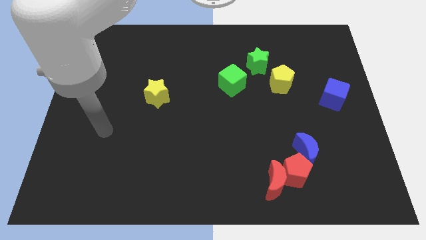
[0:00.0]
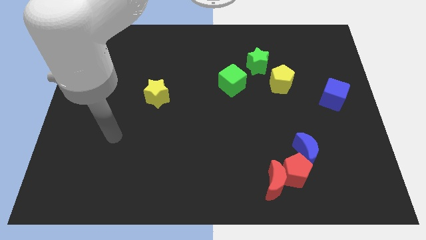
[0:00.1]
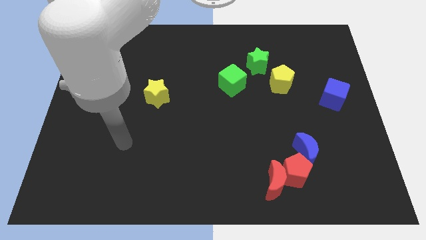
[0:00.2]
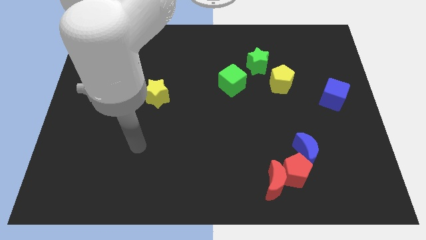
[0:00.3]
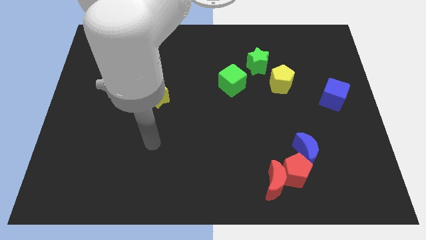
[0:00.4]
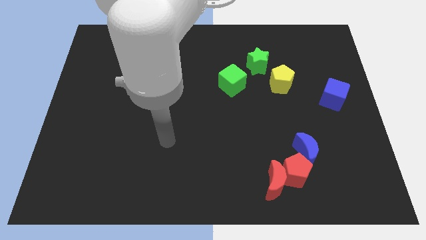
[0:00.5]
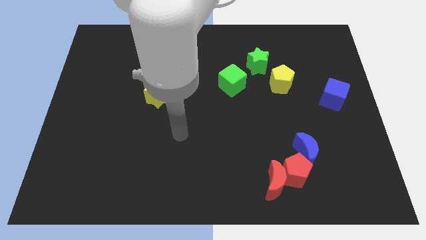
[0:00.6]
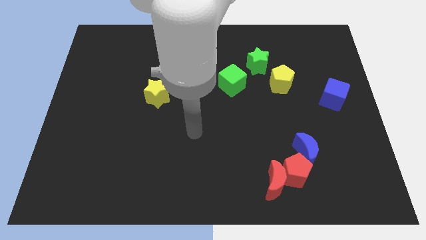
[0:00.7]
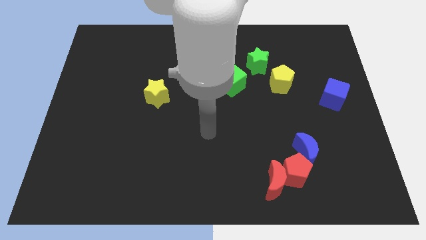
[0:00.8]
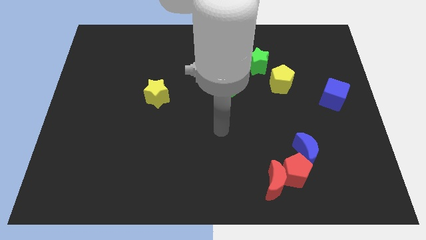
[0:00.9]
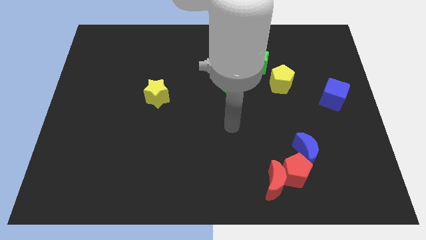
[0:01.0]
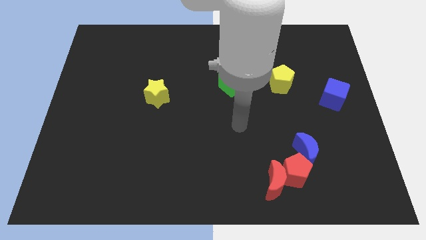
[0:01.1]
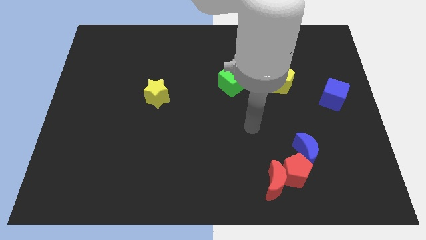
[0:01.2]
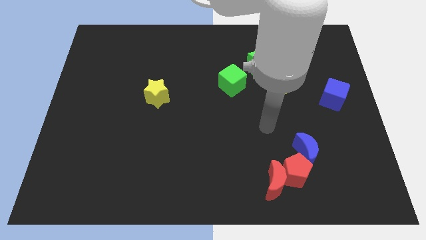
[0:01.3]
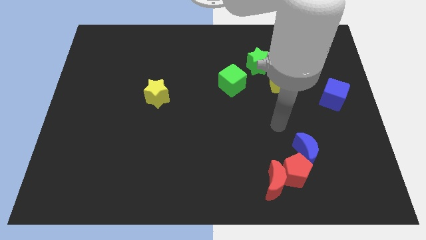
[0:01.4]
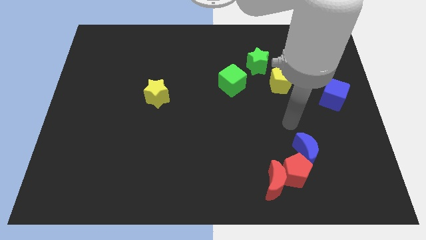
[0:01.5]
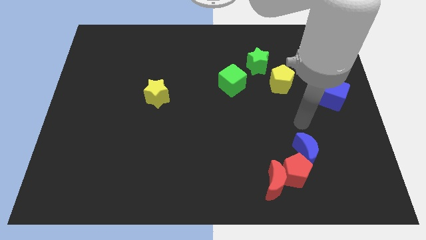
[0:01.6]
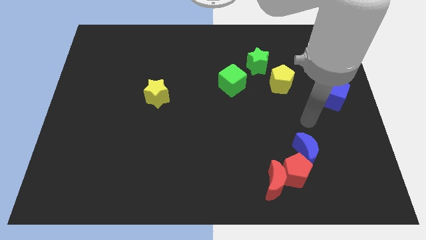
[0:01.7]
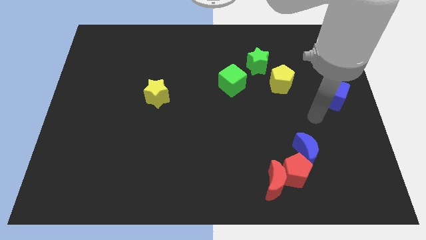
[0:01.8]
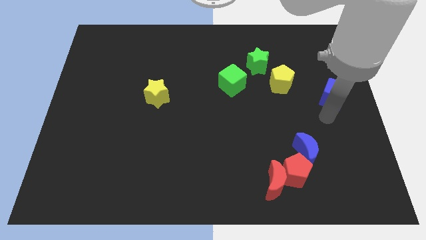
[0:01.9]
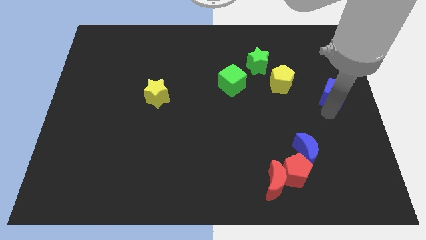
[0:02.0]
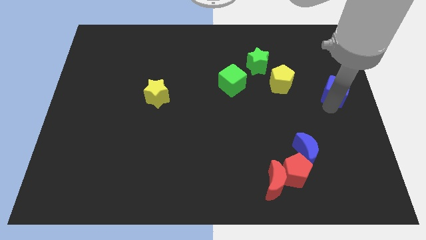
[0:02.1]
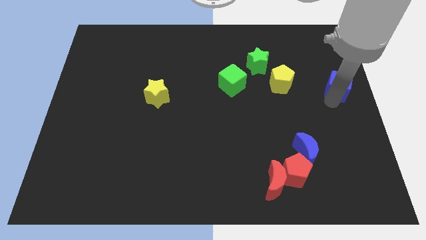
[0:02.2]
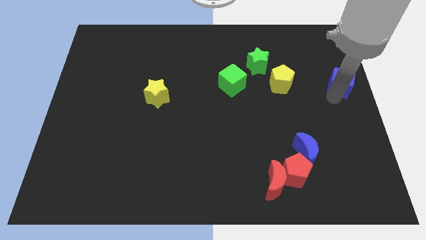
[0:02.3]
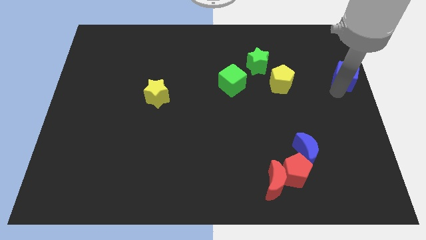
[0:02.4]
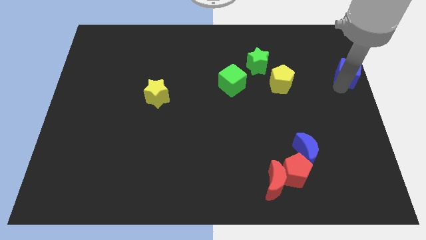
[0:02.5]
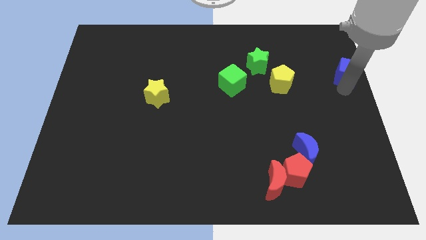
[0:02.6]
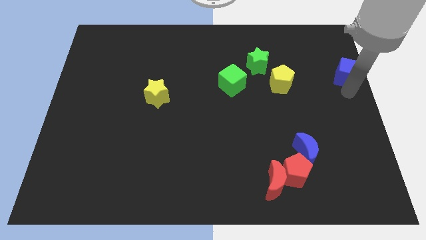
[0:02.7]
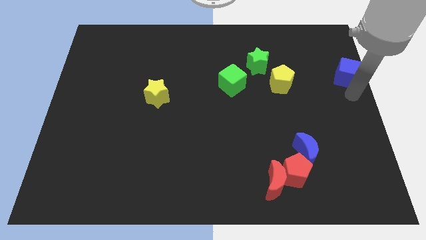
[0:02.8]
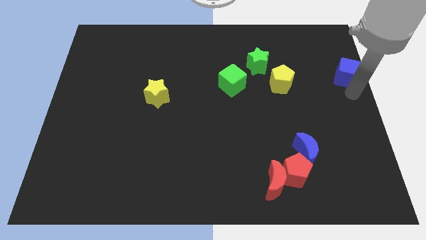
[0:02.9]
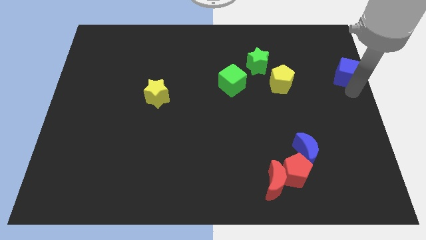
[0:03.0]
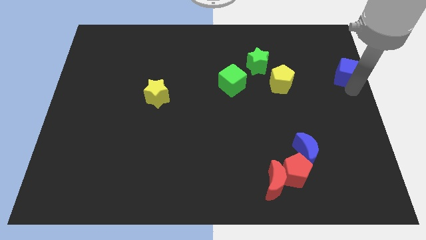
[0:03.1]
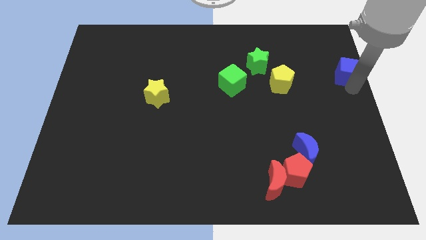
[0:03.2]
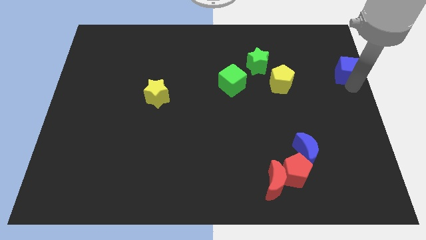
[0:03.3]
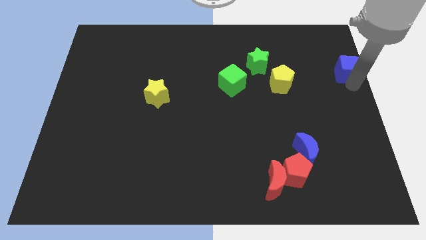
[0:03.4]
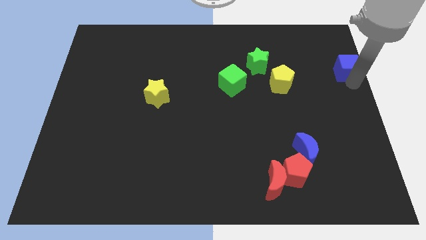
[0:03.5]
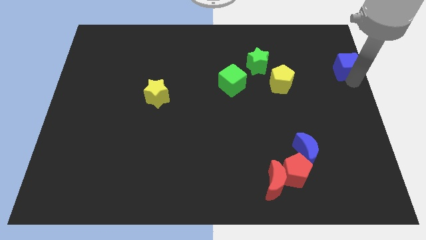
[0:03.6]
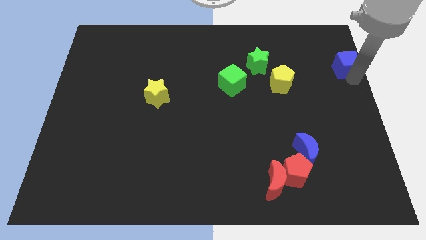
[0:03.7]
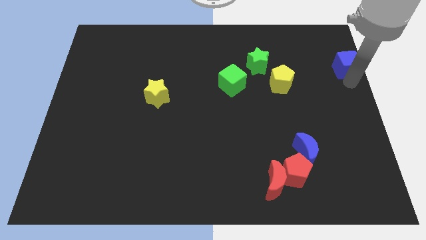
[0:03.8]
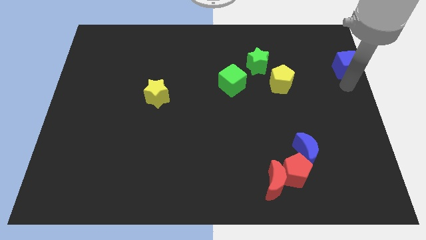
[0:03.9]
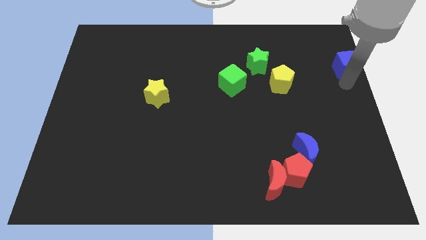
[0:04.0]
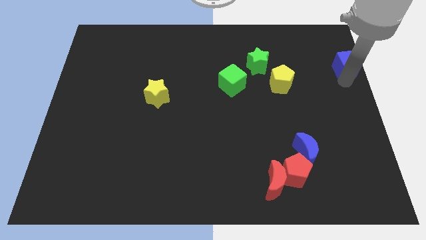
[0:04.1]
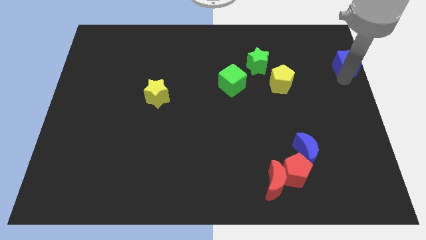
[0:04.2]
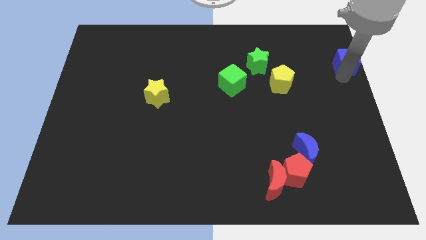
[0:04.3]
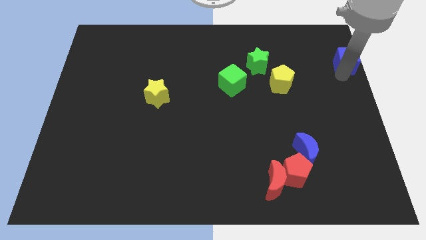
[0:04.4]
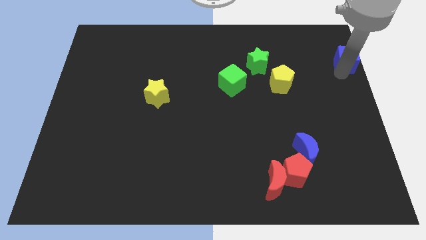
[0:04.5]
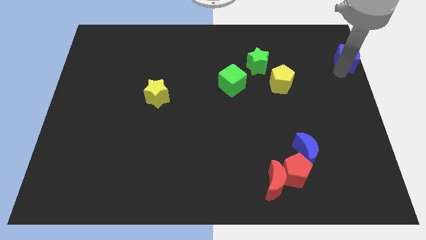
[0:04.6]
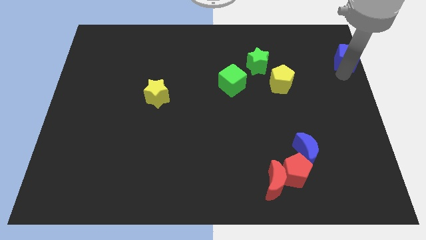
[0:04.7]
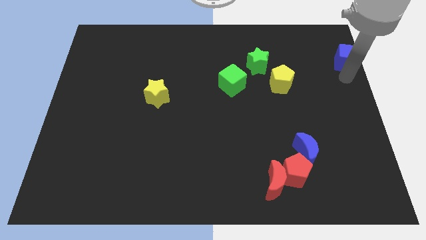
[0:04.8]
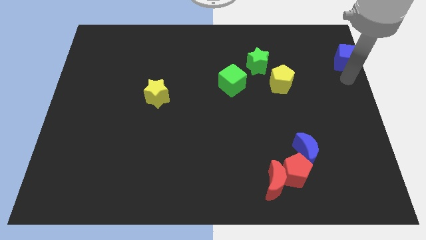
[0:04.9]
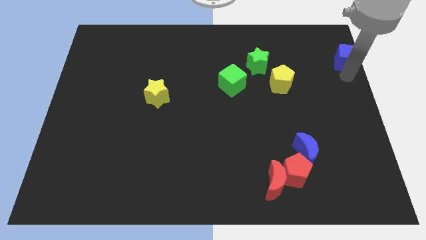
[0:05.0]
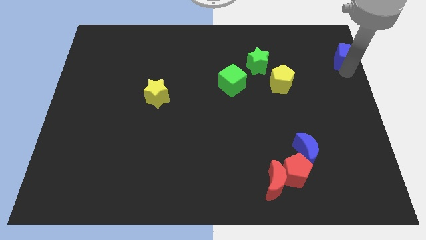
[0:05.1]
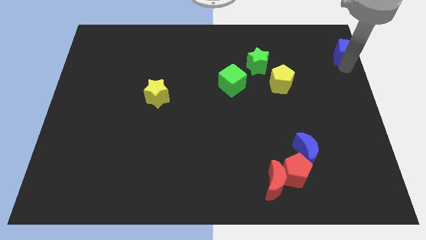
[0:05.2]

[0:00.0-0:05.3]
move the blue cube to the top right
